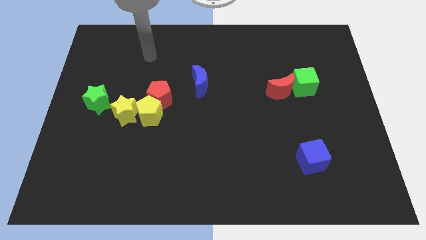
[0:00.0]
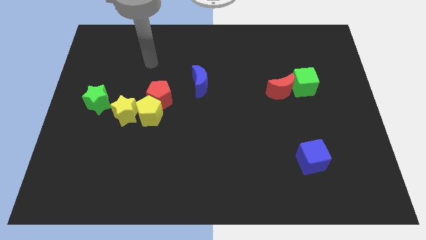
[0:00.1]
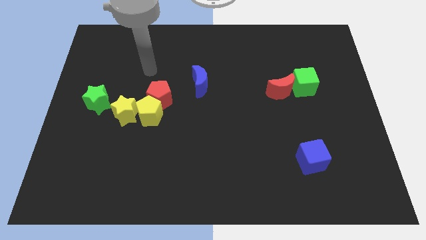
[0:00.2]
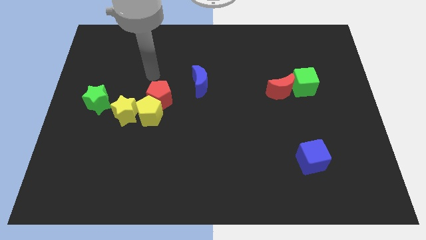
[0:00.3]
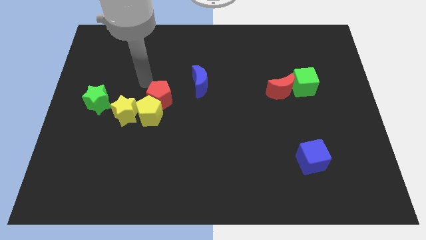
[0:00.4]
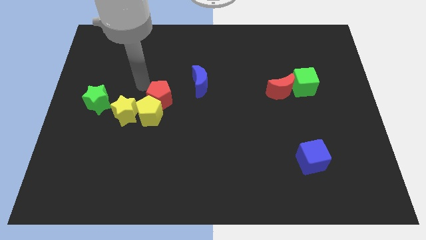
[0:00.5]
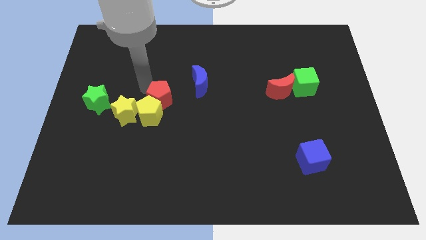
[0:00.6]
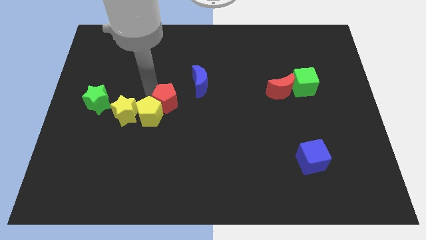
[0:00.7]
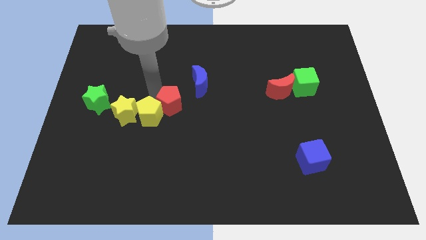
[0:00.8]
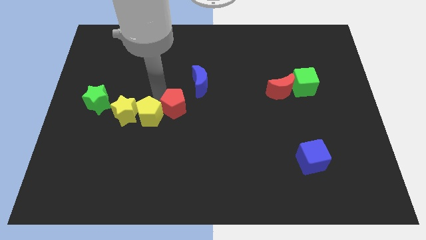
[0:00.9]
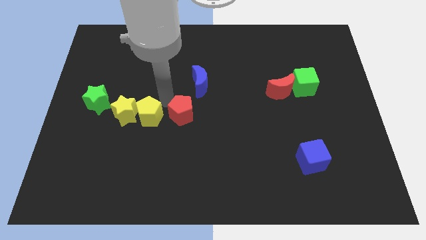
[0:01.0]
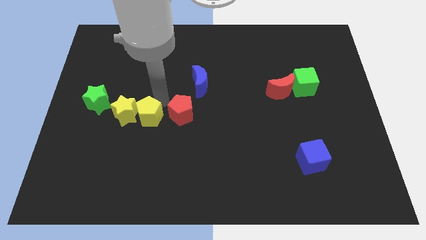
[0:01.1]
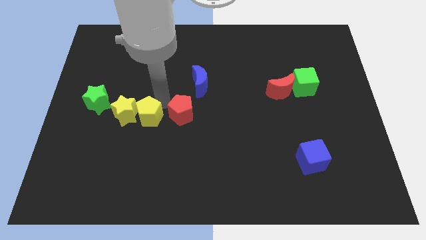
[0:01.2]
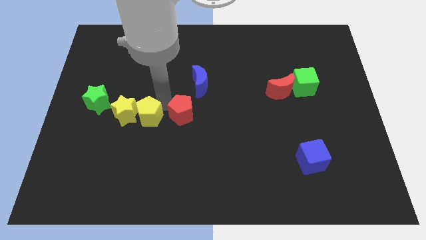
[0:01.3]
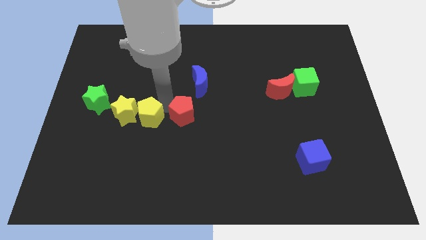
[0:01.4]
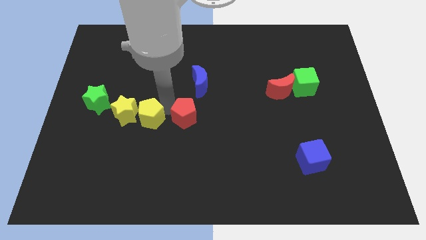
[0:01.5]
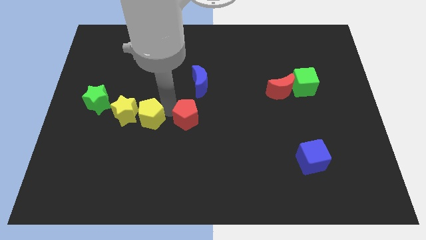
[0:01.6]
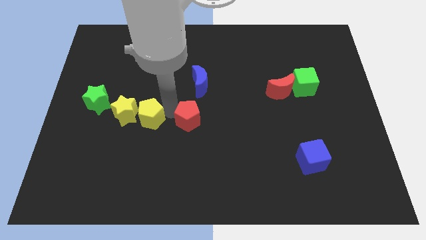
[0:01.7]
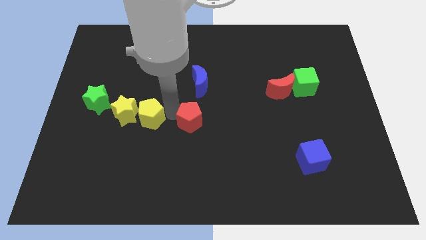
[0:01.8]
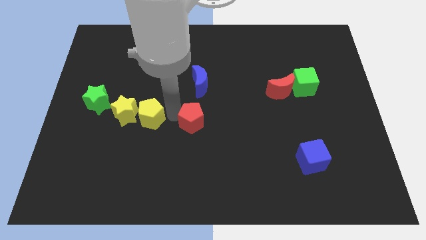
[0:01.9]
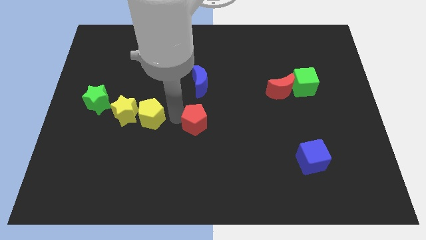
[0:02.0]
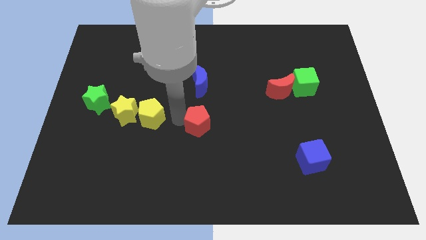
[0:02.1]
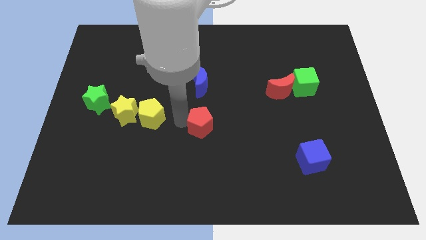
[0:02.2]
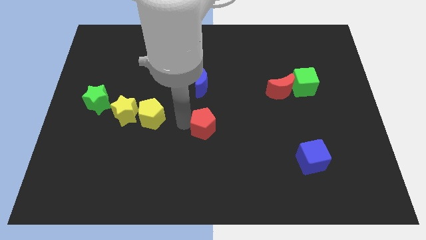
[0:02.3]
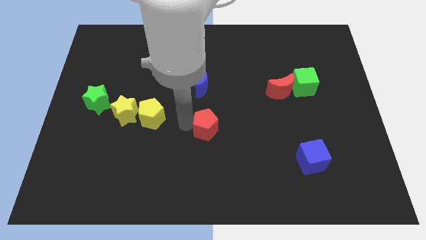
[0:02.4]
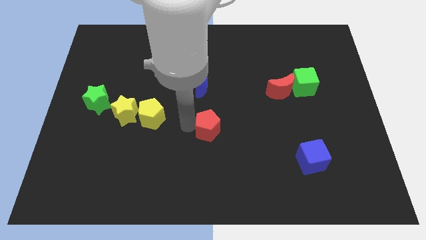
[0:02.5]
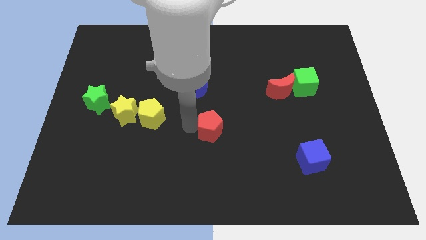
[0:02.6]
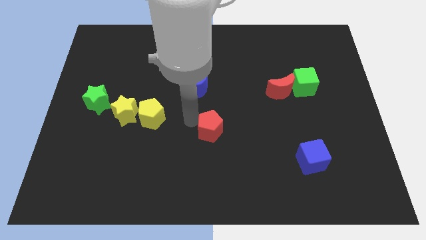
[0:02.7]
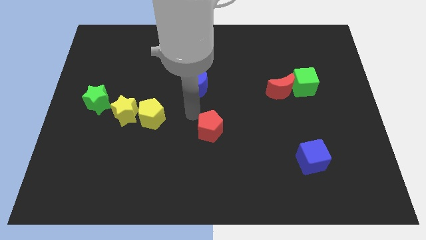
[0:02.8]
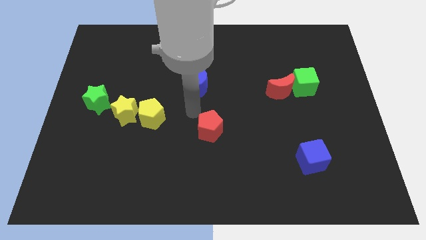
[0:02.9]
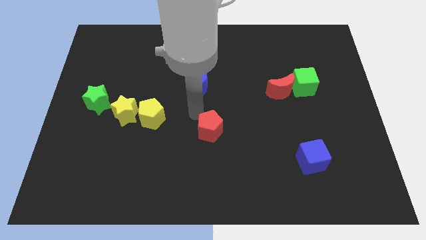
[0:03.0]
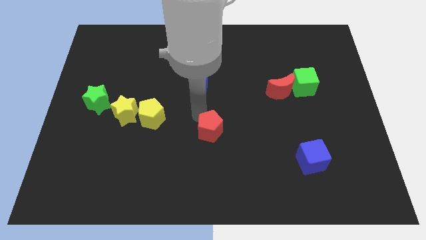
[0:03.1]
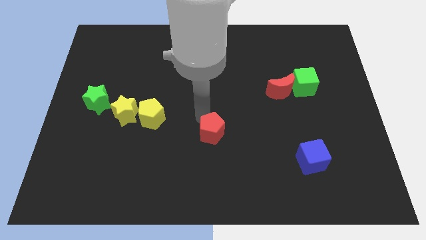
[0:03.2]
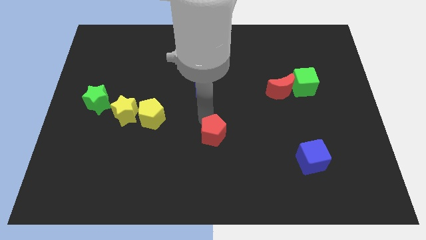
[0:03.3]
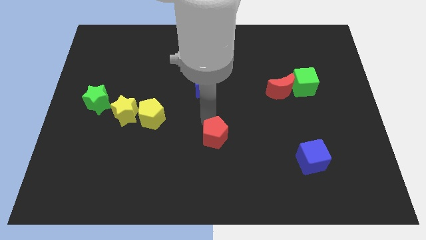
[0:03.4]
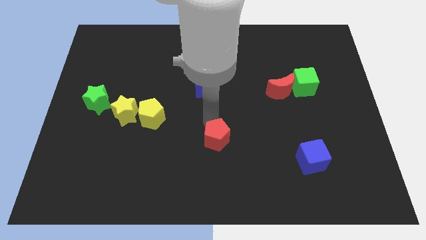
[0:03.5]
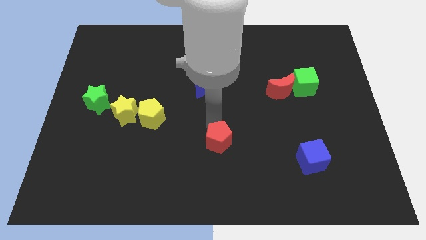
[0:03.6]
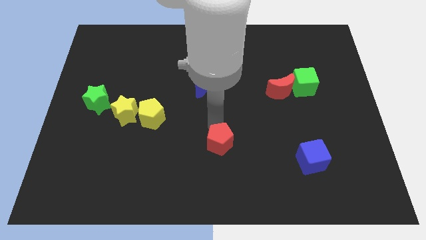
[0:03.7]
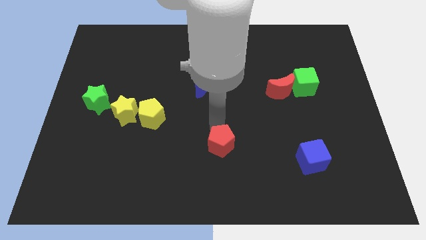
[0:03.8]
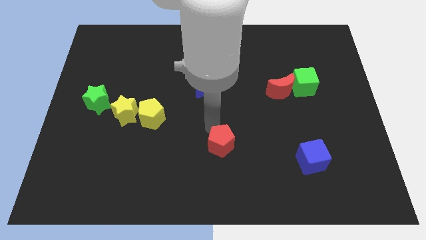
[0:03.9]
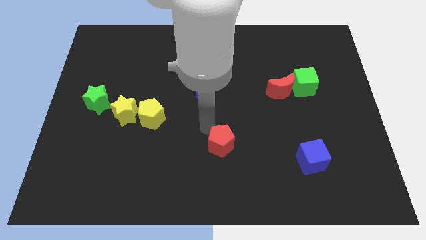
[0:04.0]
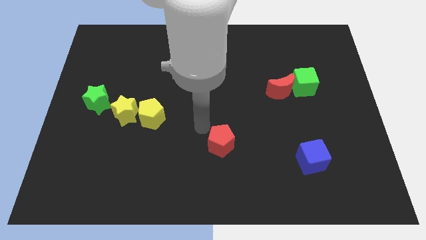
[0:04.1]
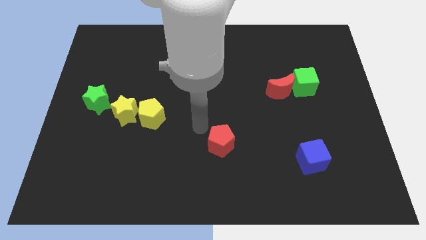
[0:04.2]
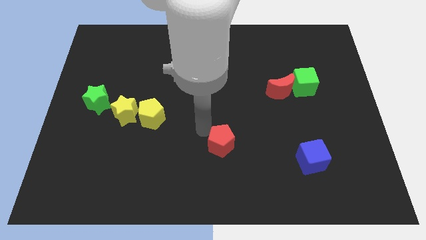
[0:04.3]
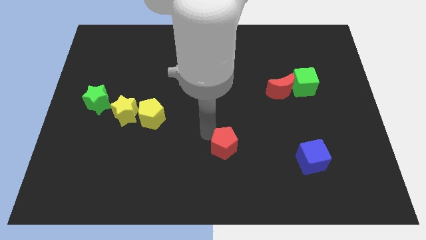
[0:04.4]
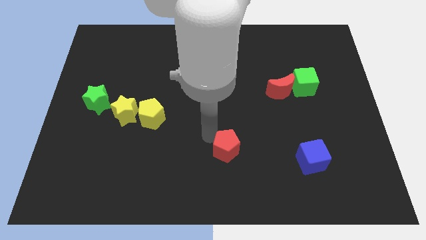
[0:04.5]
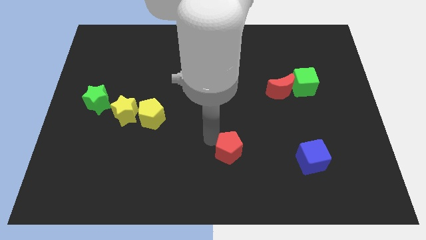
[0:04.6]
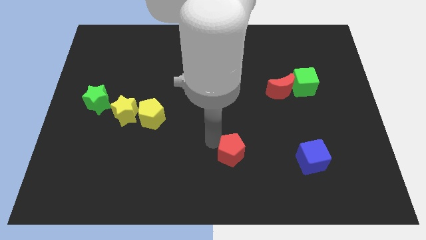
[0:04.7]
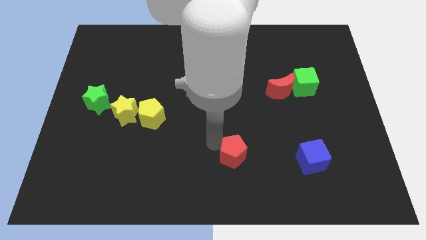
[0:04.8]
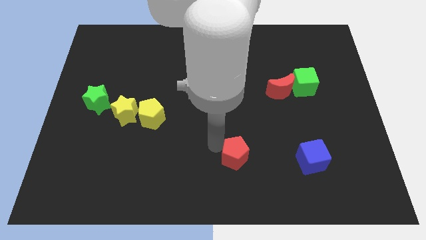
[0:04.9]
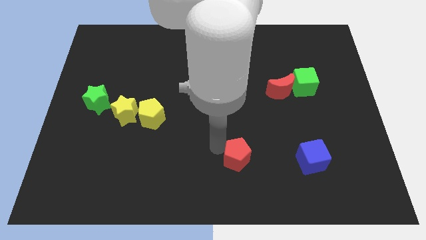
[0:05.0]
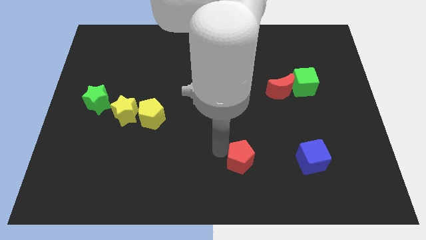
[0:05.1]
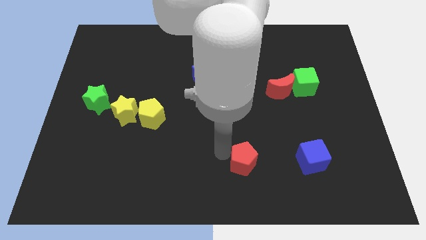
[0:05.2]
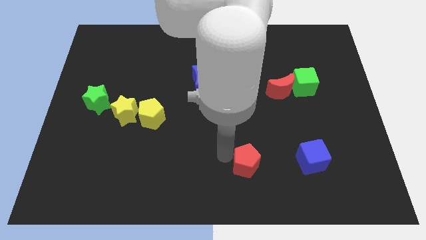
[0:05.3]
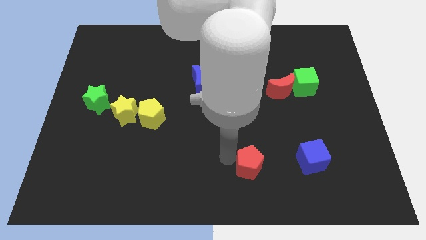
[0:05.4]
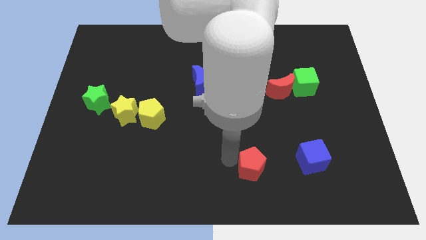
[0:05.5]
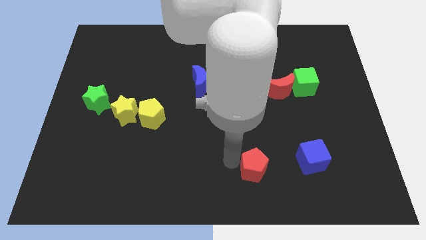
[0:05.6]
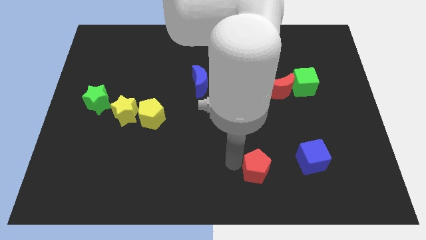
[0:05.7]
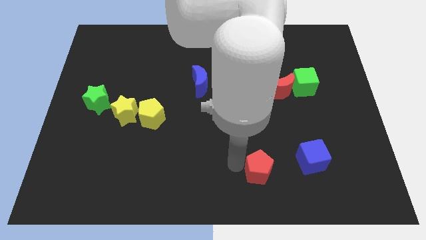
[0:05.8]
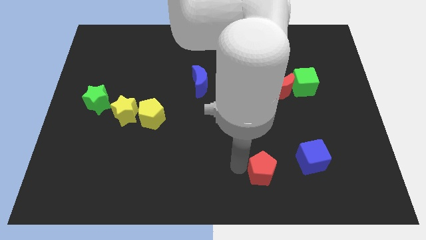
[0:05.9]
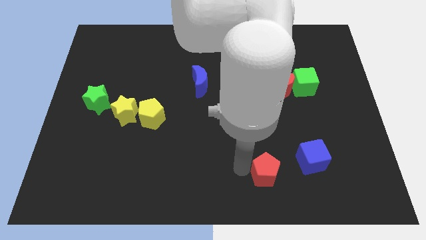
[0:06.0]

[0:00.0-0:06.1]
move the red pentagon to the bottom left side of the blue cube

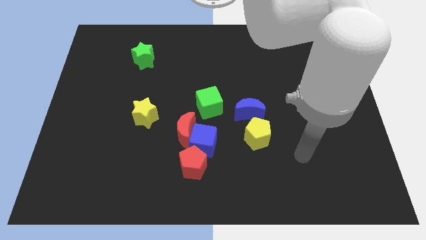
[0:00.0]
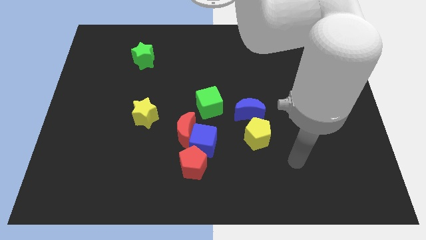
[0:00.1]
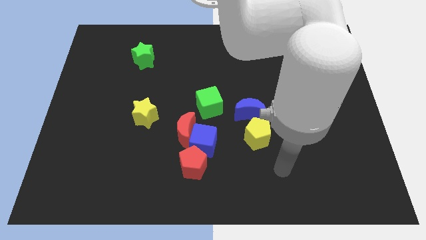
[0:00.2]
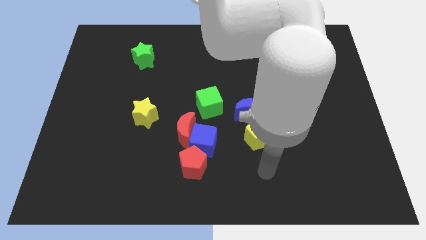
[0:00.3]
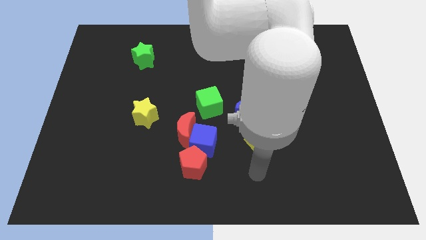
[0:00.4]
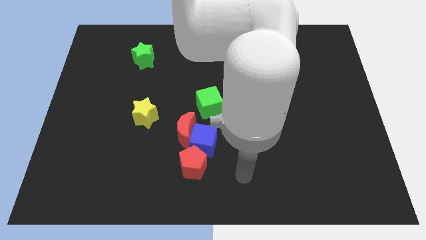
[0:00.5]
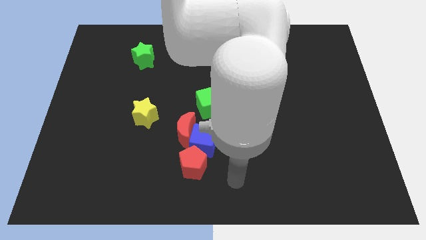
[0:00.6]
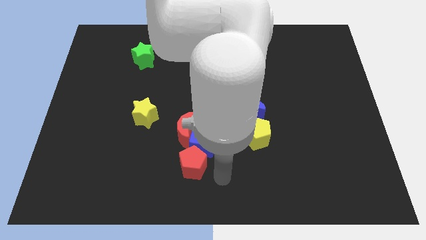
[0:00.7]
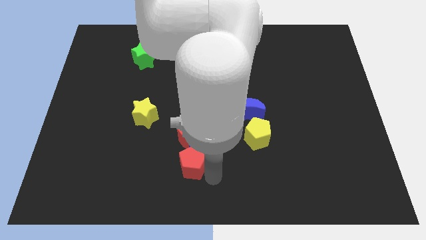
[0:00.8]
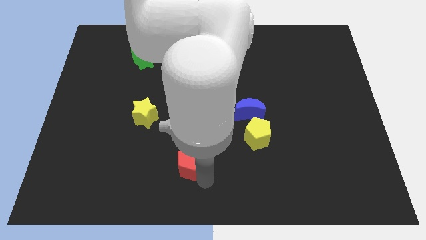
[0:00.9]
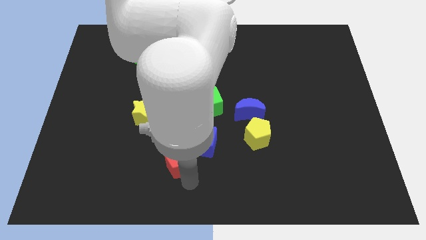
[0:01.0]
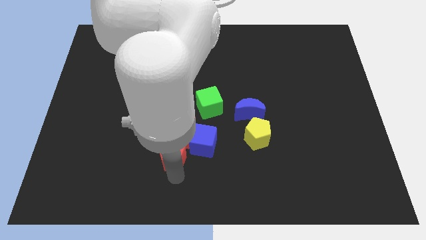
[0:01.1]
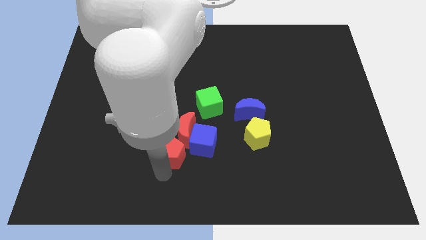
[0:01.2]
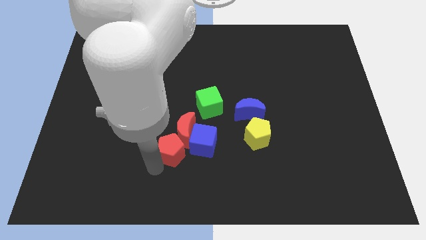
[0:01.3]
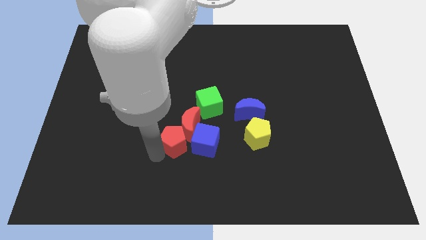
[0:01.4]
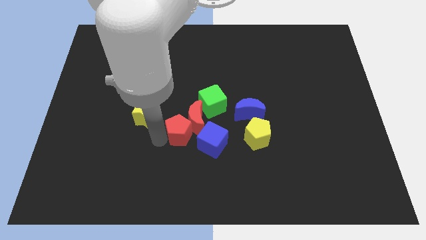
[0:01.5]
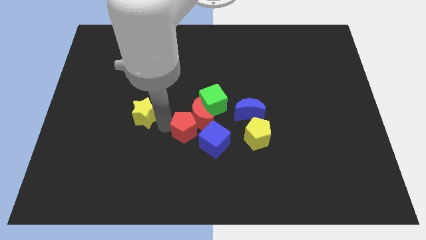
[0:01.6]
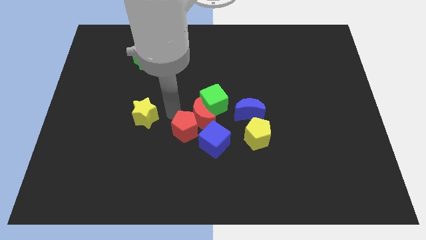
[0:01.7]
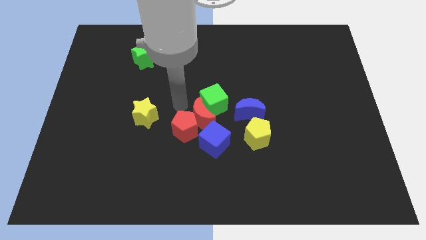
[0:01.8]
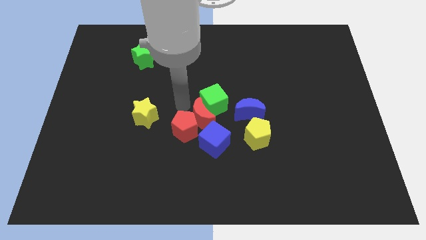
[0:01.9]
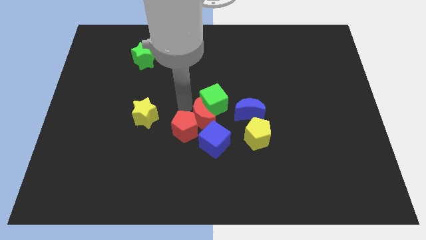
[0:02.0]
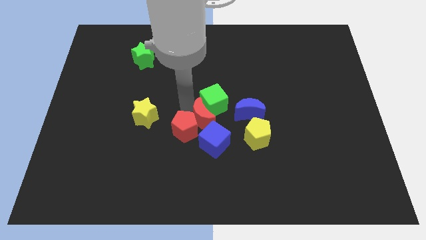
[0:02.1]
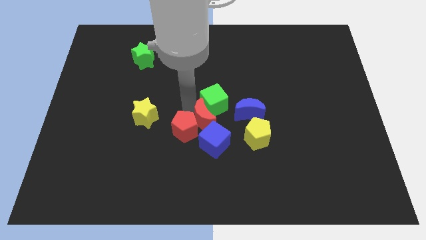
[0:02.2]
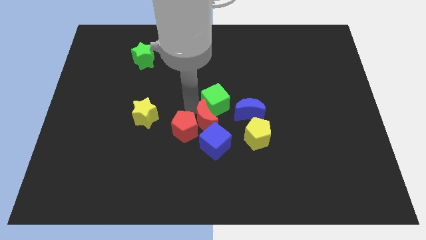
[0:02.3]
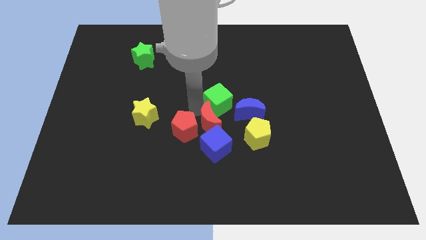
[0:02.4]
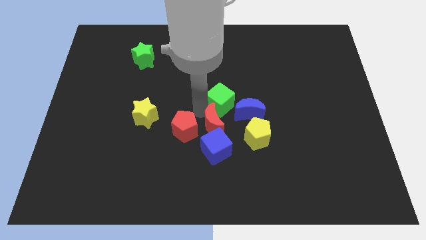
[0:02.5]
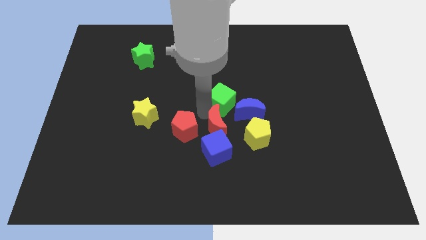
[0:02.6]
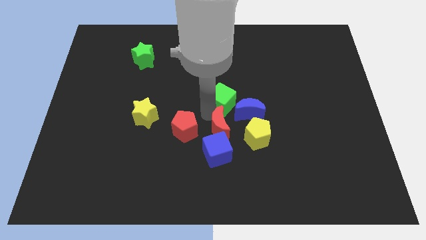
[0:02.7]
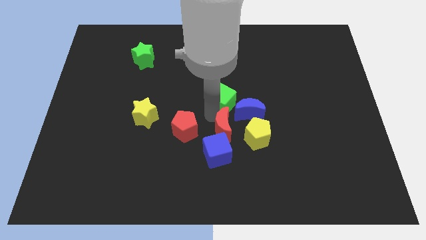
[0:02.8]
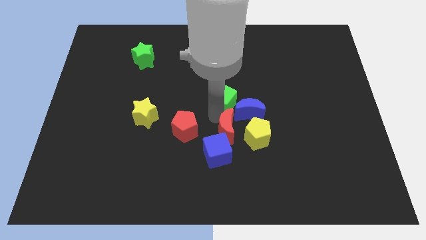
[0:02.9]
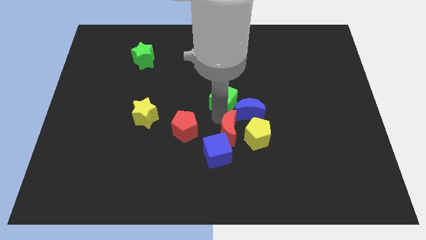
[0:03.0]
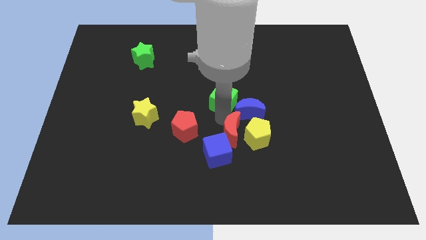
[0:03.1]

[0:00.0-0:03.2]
slide the red moon to the bottom left side of the yellow pentagon
